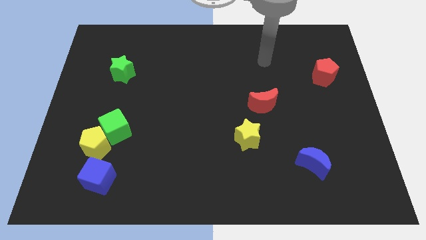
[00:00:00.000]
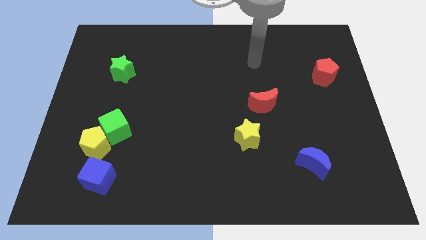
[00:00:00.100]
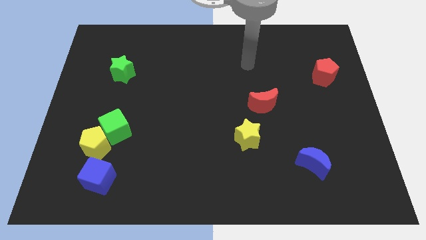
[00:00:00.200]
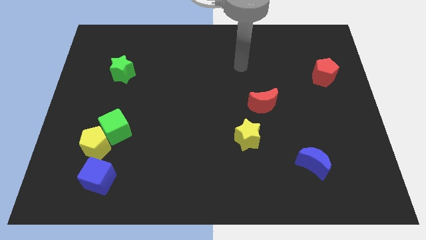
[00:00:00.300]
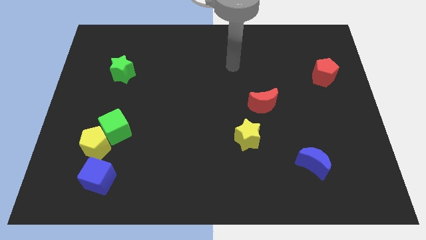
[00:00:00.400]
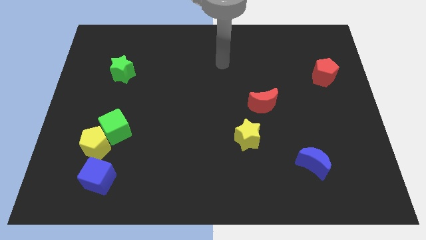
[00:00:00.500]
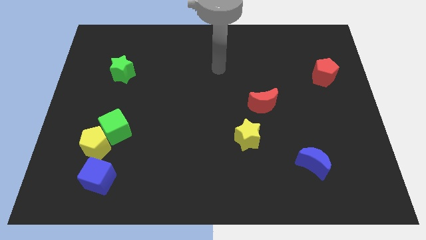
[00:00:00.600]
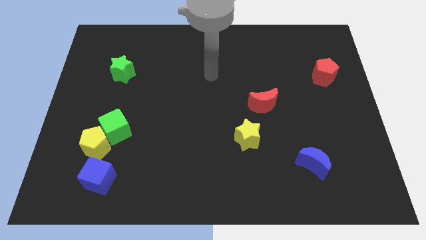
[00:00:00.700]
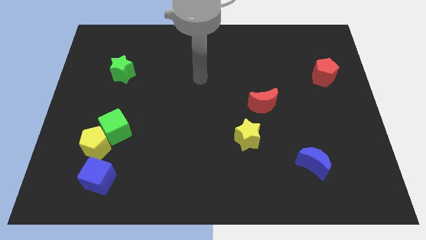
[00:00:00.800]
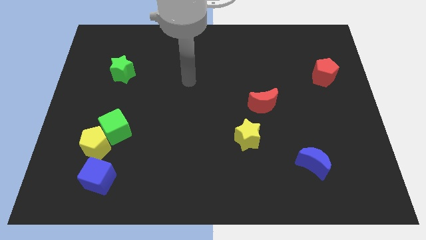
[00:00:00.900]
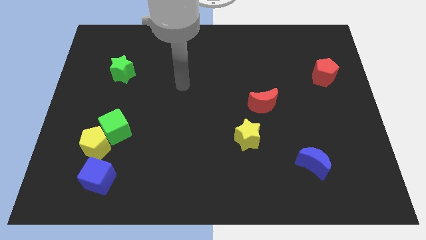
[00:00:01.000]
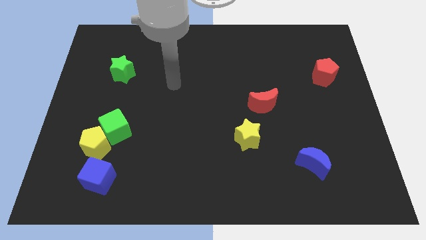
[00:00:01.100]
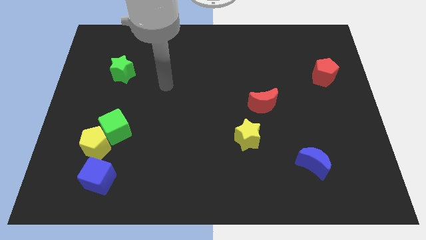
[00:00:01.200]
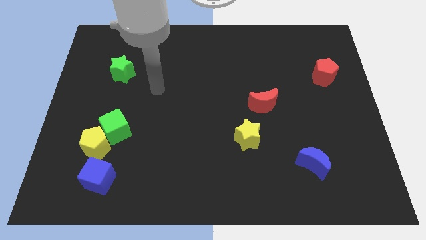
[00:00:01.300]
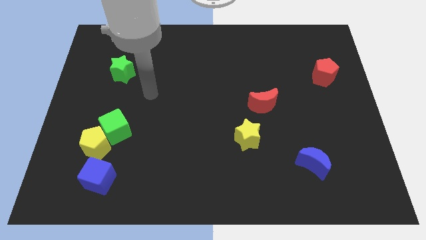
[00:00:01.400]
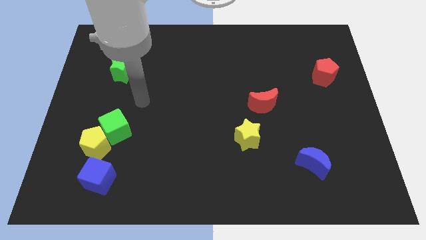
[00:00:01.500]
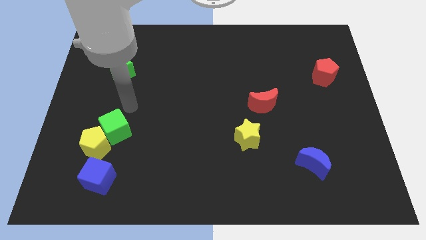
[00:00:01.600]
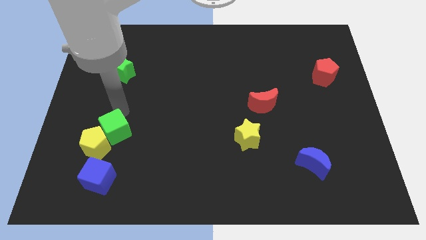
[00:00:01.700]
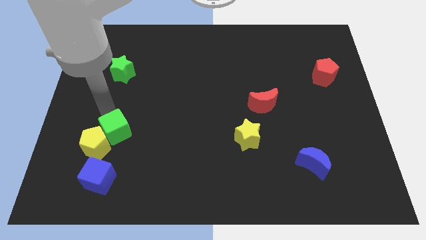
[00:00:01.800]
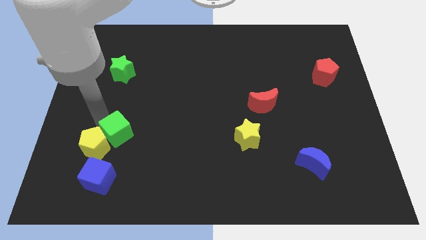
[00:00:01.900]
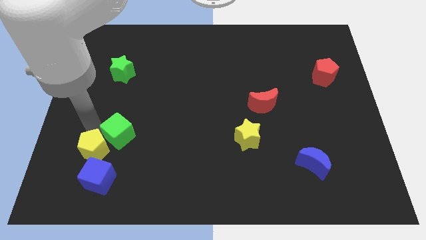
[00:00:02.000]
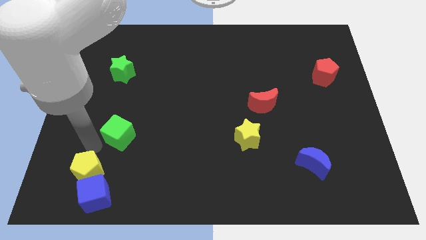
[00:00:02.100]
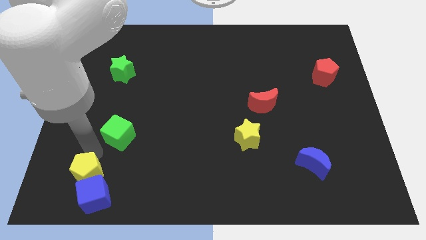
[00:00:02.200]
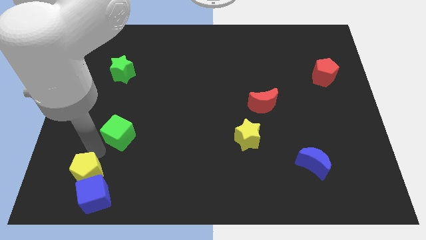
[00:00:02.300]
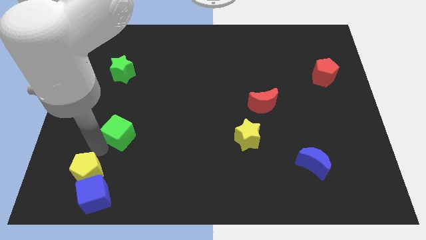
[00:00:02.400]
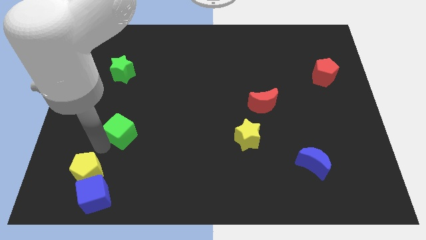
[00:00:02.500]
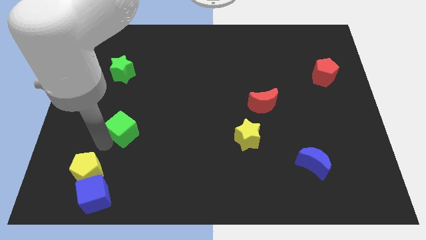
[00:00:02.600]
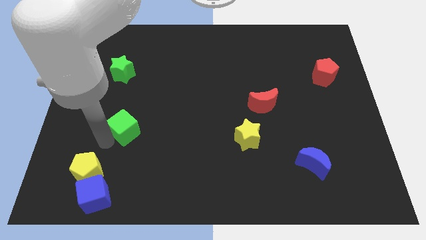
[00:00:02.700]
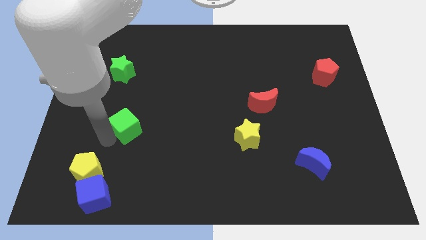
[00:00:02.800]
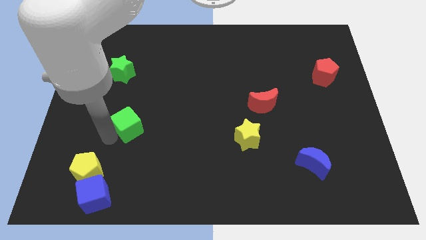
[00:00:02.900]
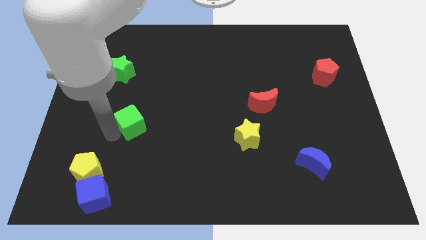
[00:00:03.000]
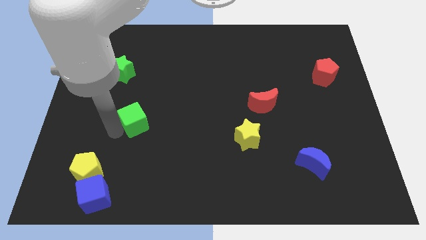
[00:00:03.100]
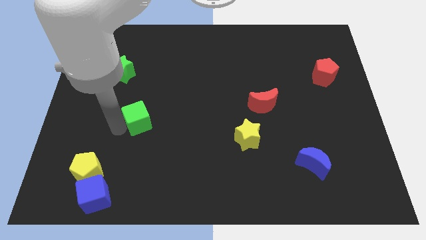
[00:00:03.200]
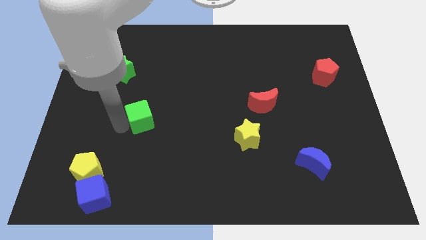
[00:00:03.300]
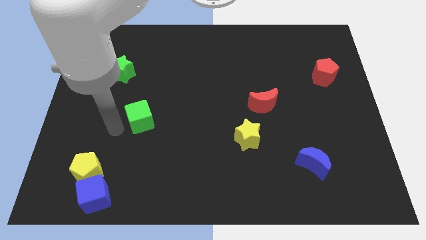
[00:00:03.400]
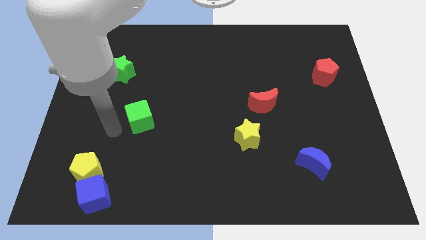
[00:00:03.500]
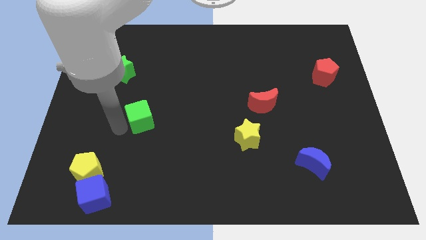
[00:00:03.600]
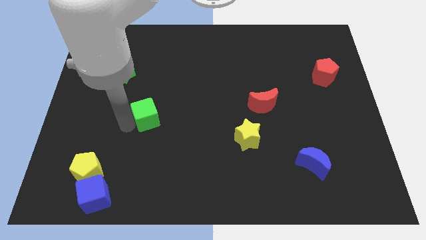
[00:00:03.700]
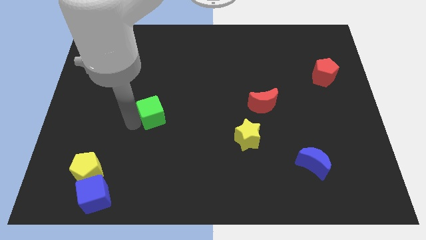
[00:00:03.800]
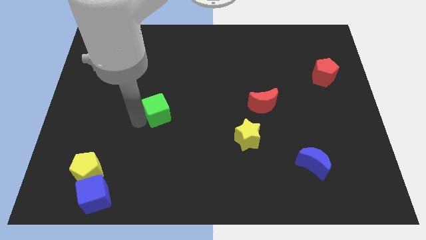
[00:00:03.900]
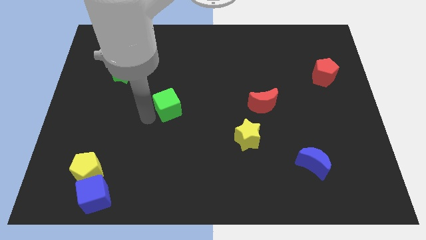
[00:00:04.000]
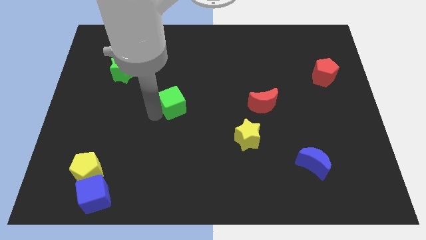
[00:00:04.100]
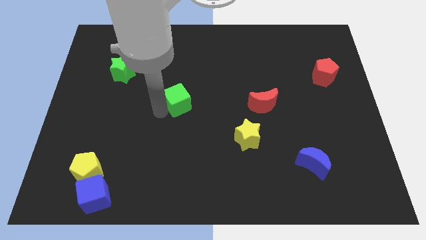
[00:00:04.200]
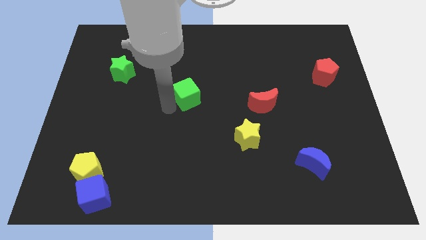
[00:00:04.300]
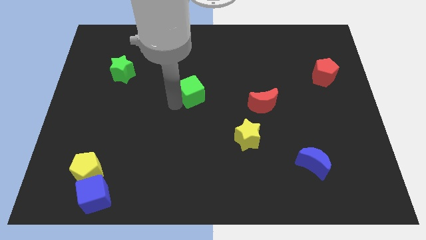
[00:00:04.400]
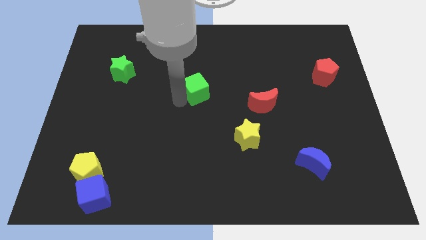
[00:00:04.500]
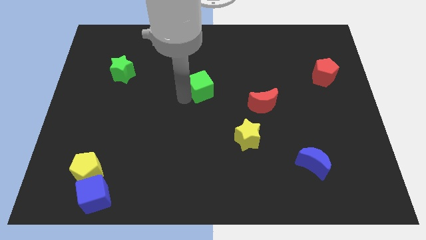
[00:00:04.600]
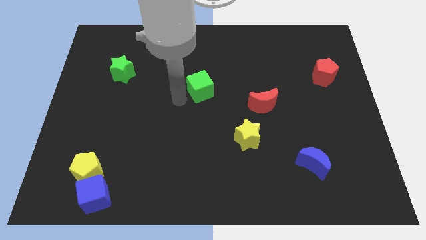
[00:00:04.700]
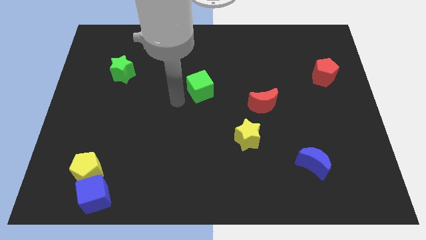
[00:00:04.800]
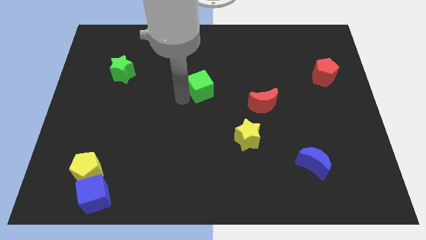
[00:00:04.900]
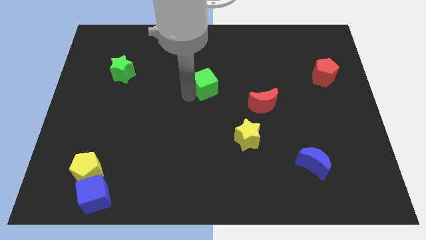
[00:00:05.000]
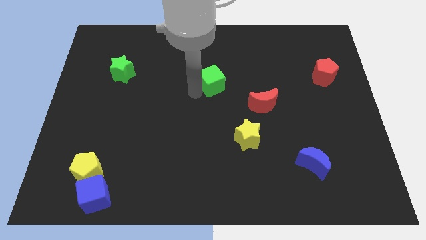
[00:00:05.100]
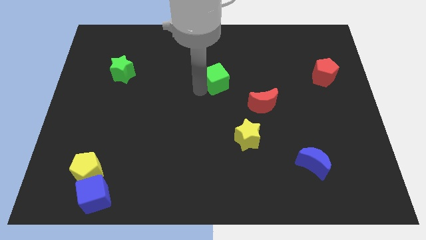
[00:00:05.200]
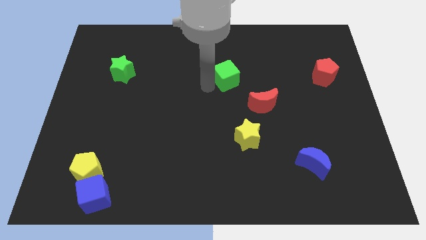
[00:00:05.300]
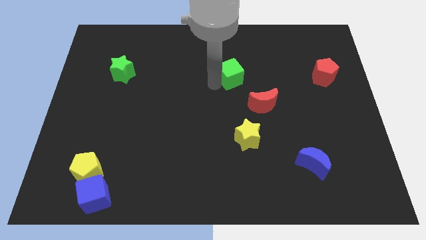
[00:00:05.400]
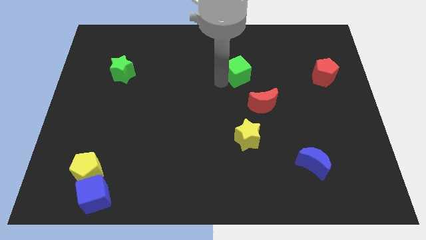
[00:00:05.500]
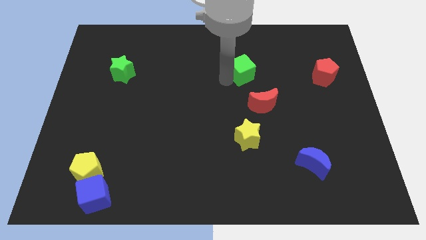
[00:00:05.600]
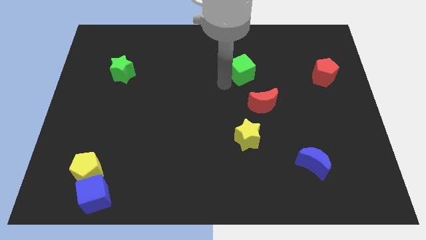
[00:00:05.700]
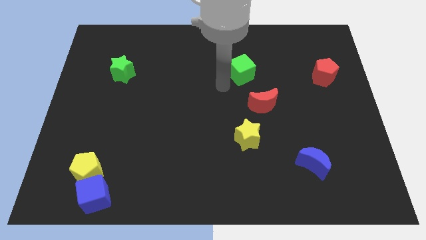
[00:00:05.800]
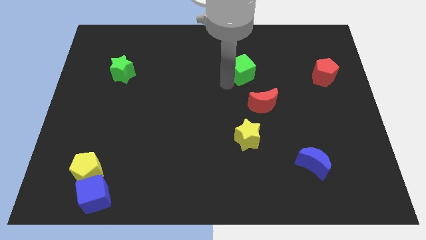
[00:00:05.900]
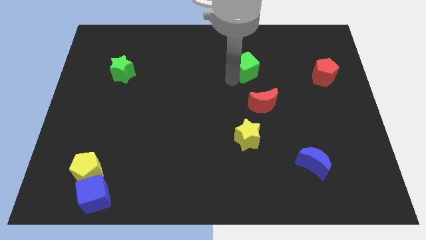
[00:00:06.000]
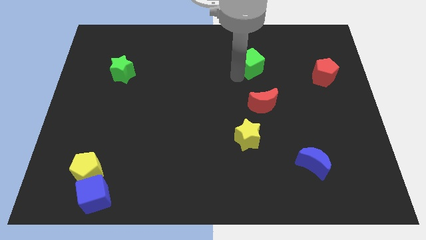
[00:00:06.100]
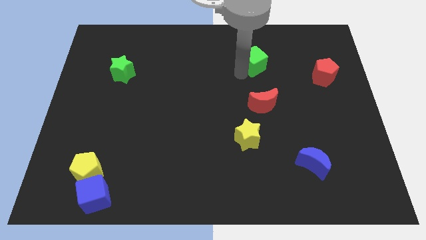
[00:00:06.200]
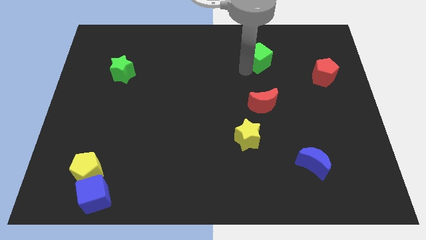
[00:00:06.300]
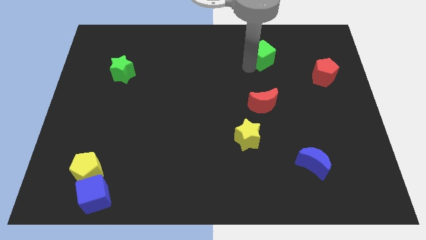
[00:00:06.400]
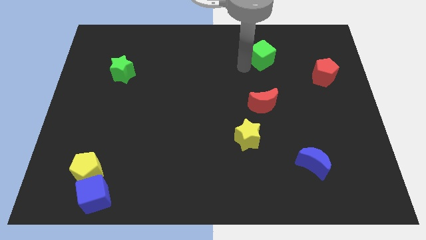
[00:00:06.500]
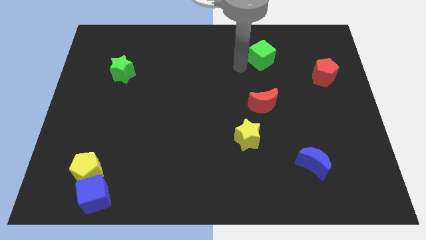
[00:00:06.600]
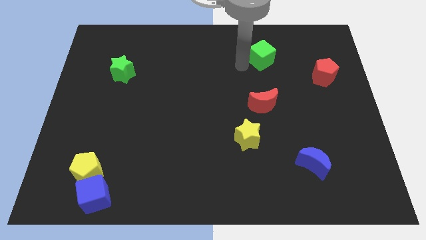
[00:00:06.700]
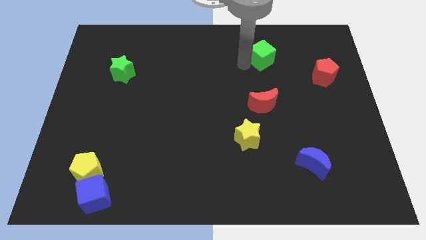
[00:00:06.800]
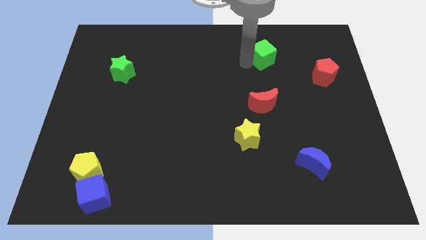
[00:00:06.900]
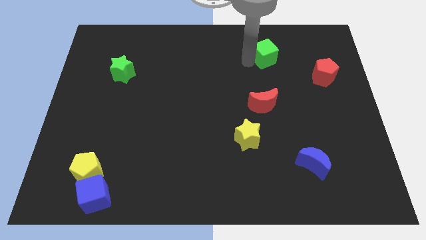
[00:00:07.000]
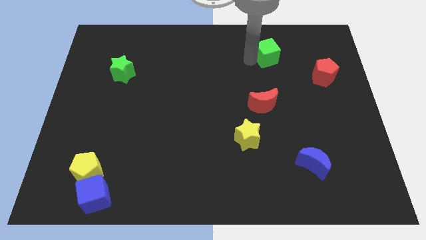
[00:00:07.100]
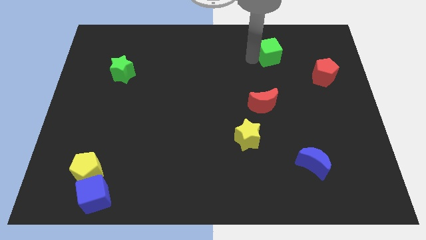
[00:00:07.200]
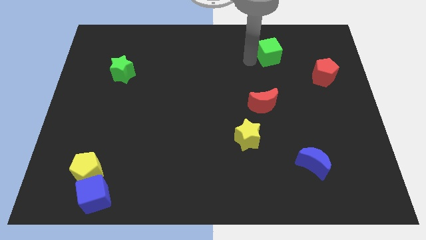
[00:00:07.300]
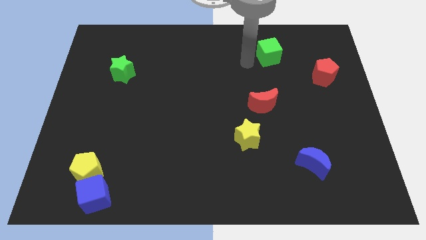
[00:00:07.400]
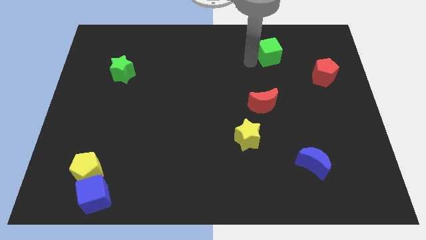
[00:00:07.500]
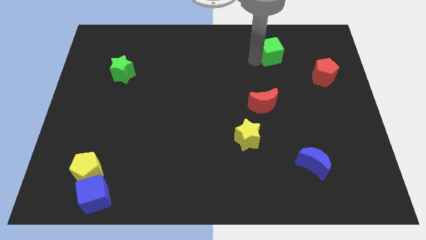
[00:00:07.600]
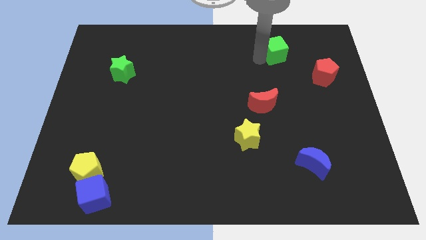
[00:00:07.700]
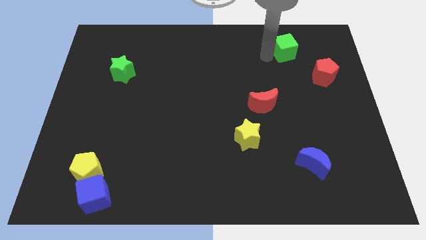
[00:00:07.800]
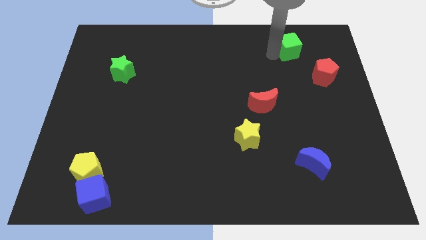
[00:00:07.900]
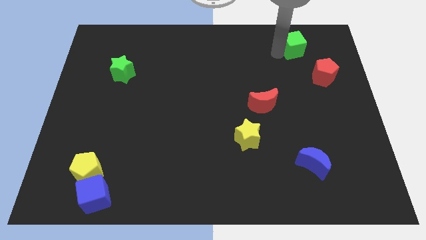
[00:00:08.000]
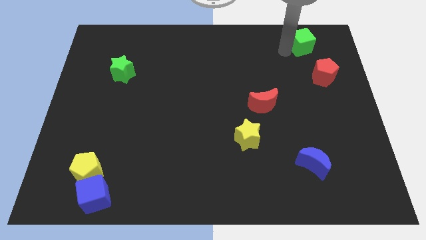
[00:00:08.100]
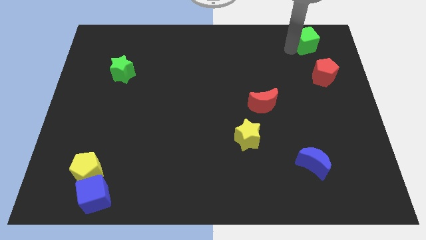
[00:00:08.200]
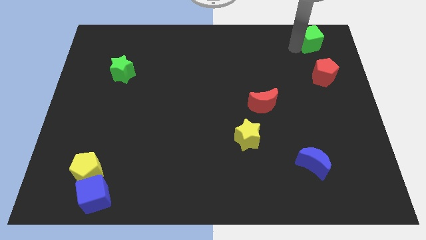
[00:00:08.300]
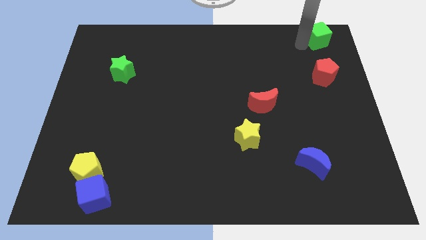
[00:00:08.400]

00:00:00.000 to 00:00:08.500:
move the green cube to the top right of the board
